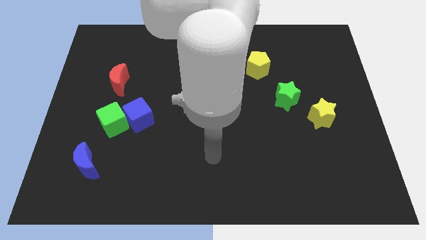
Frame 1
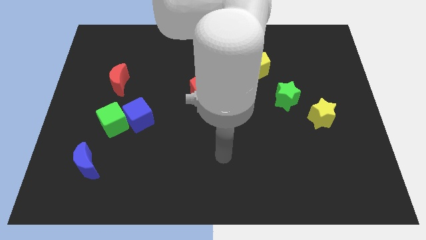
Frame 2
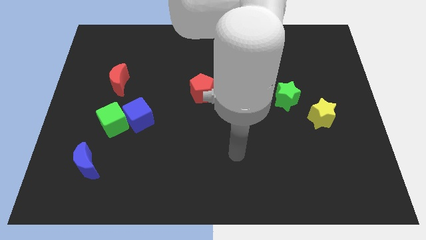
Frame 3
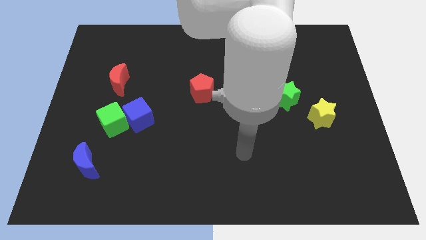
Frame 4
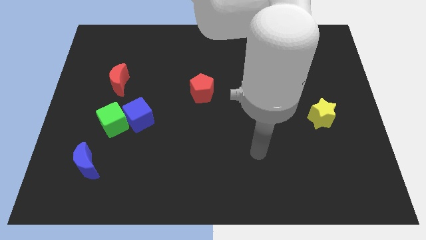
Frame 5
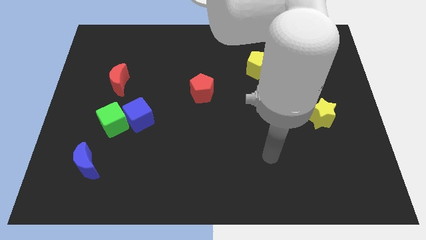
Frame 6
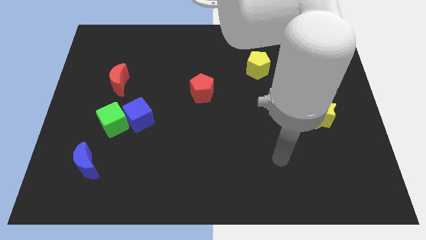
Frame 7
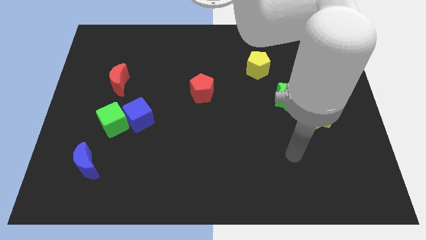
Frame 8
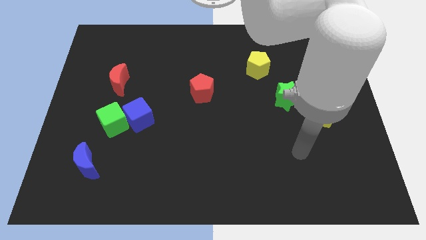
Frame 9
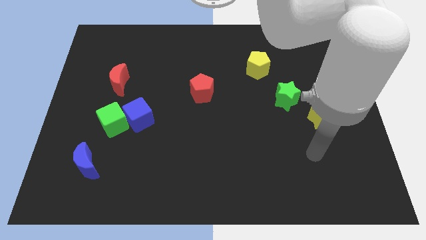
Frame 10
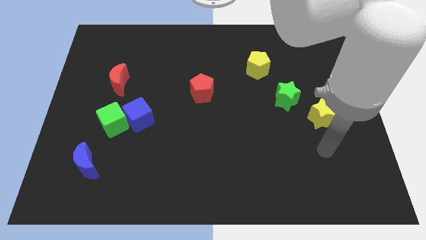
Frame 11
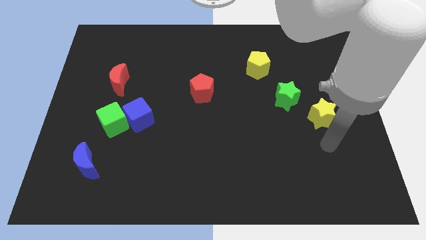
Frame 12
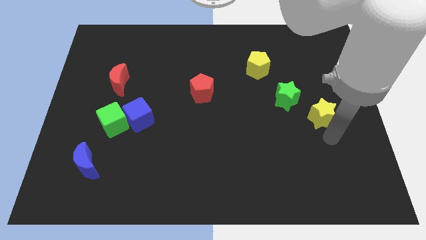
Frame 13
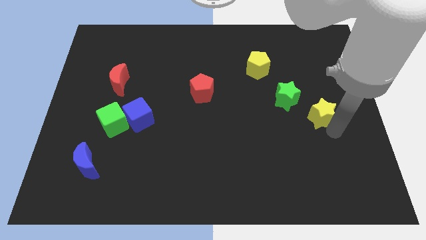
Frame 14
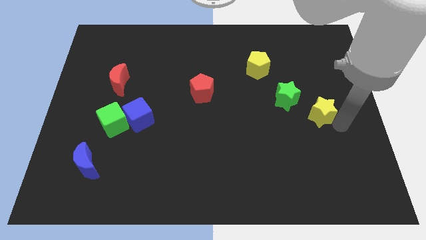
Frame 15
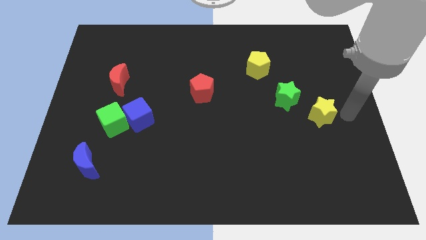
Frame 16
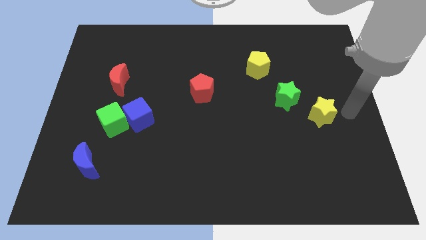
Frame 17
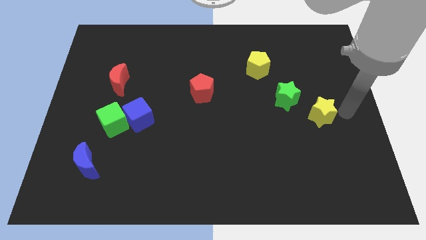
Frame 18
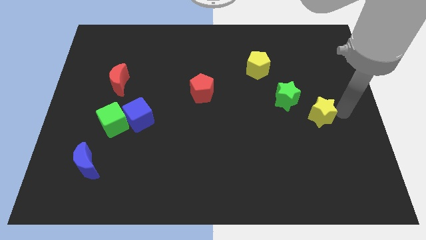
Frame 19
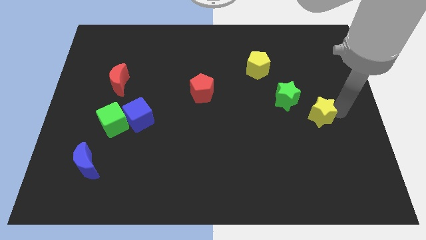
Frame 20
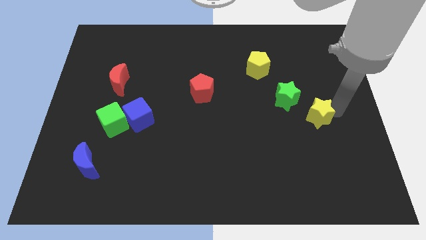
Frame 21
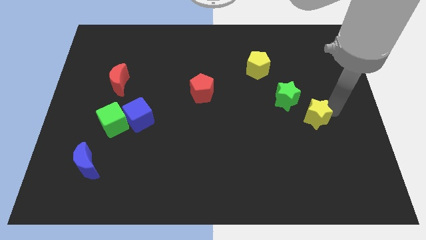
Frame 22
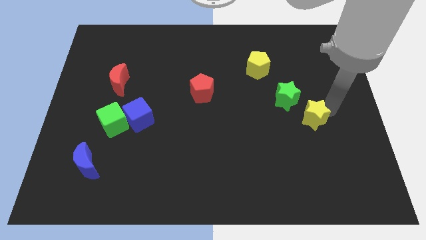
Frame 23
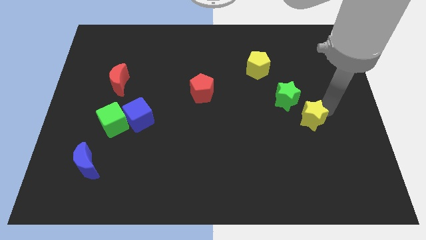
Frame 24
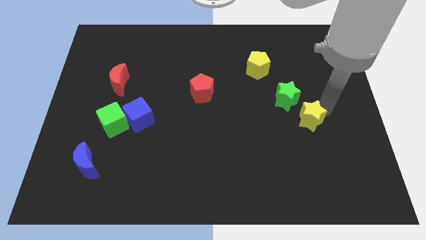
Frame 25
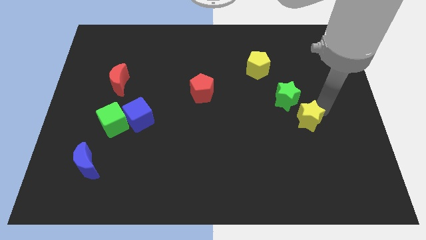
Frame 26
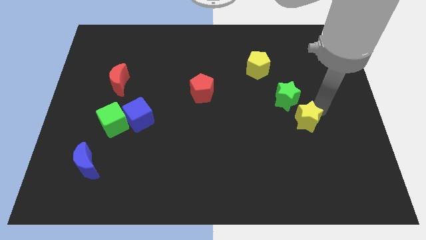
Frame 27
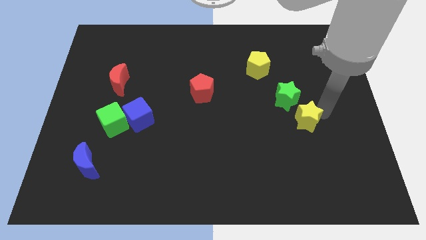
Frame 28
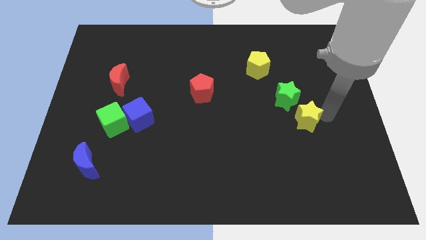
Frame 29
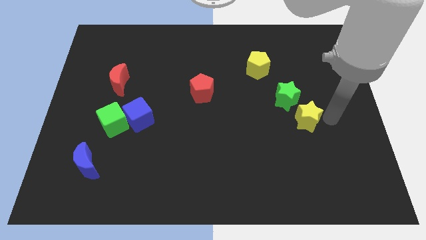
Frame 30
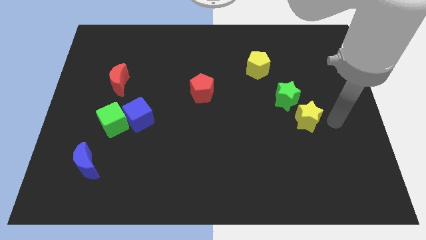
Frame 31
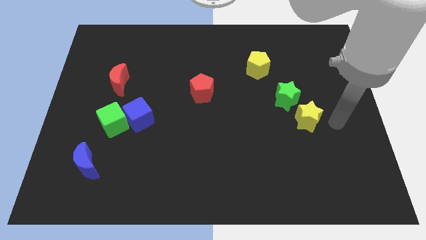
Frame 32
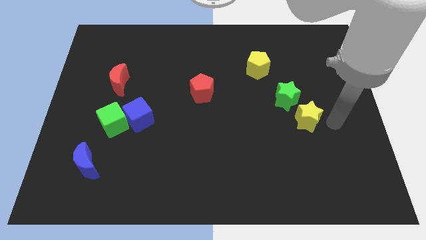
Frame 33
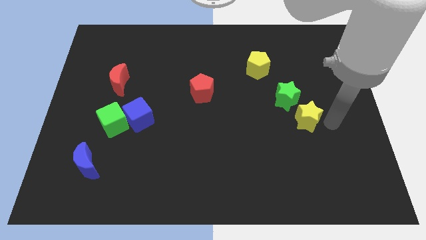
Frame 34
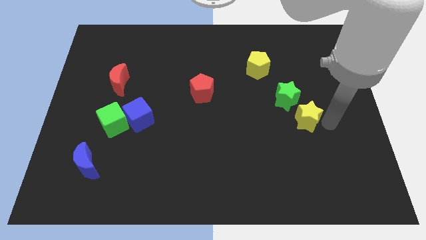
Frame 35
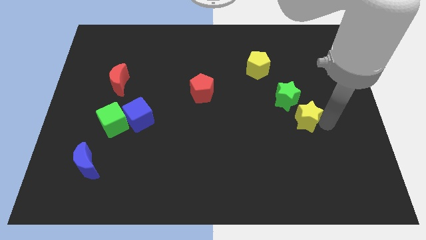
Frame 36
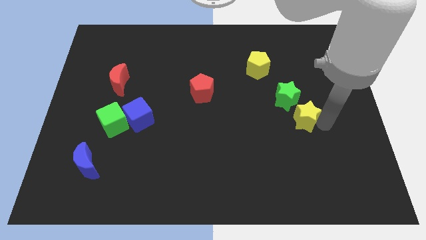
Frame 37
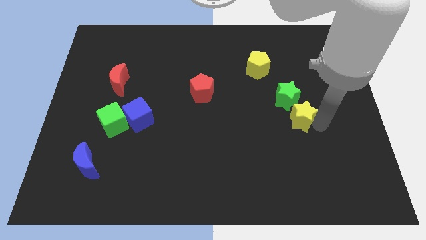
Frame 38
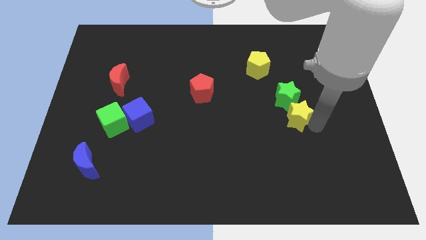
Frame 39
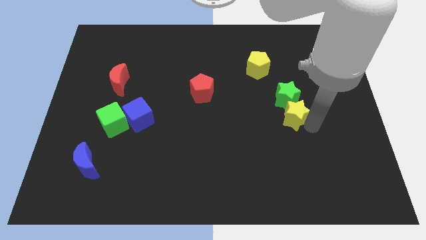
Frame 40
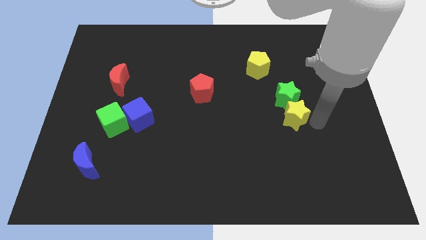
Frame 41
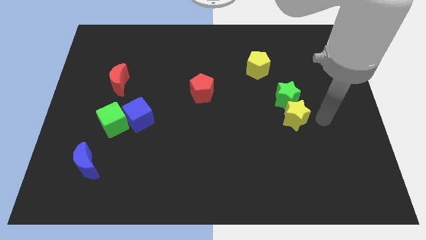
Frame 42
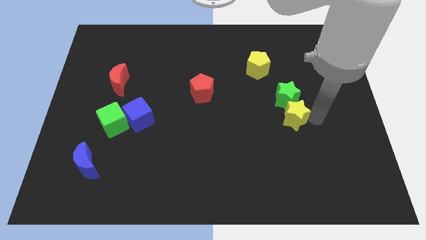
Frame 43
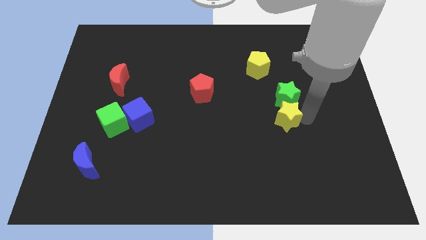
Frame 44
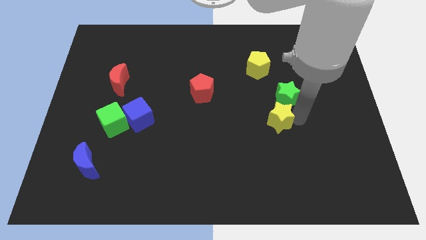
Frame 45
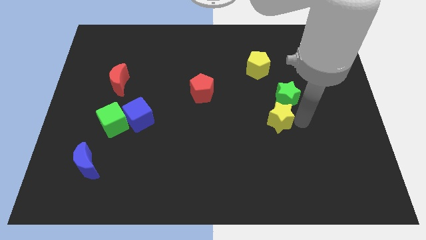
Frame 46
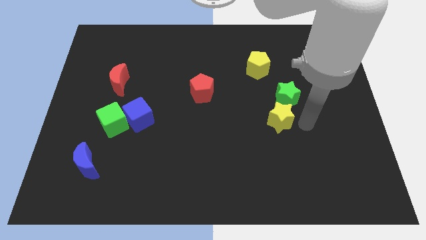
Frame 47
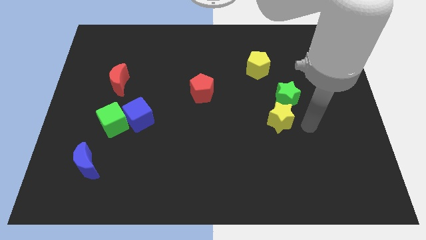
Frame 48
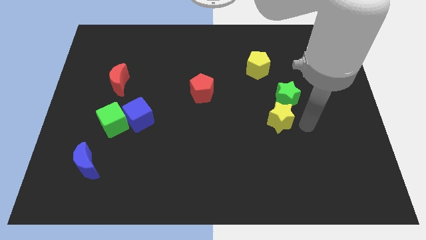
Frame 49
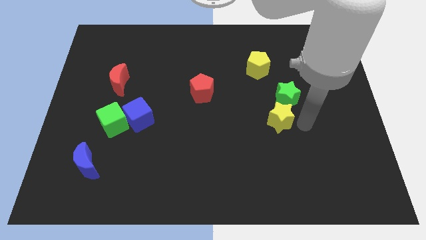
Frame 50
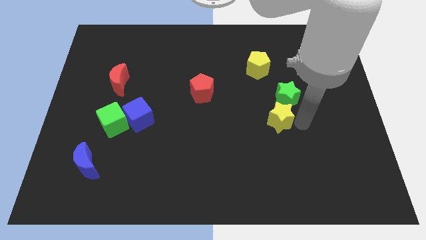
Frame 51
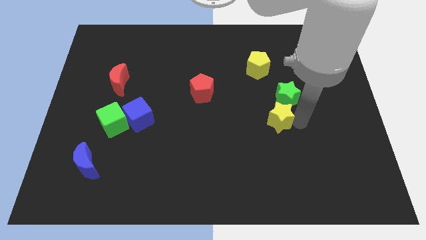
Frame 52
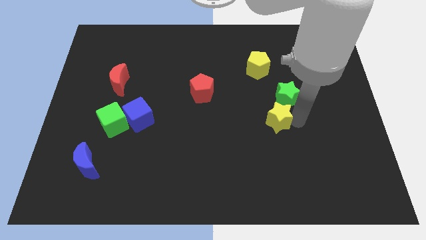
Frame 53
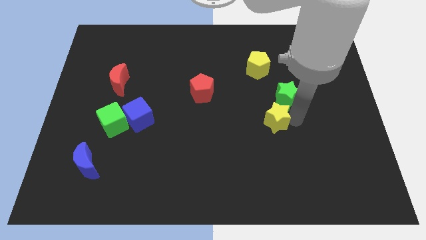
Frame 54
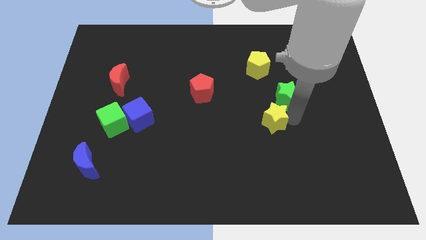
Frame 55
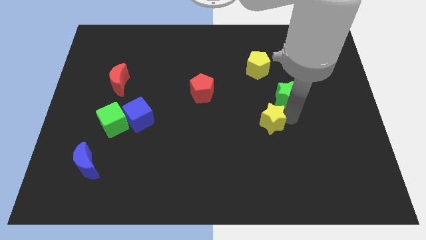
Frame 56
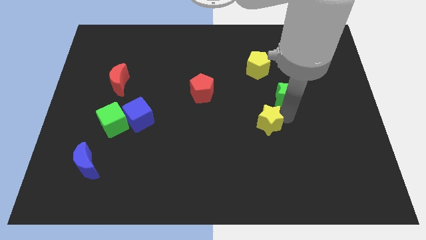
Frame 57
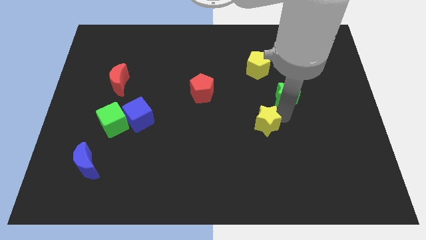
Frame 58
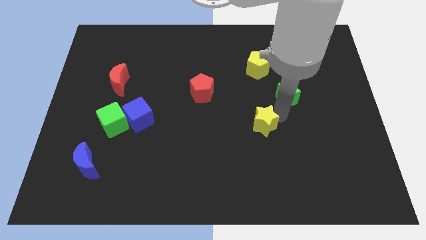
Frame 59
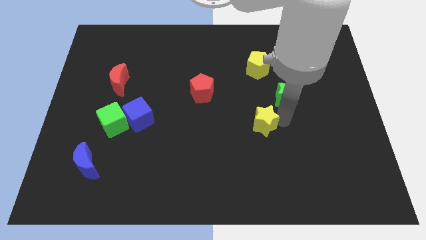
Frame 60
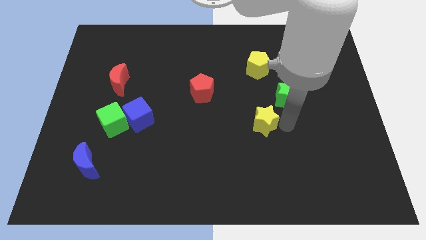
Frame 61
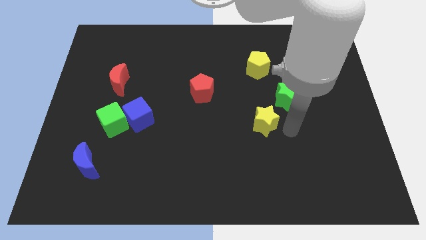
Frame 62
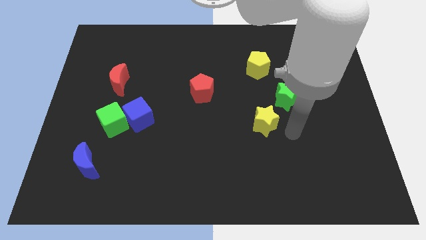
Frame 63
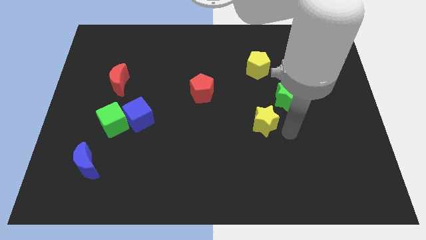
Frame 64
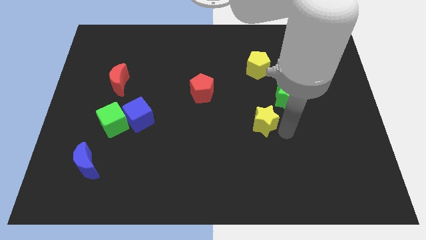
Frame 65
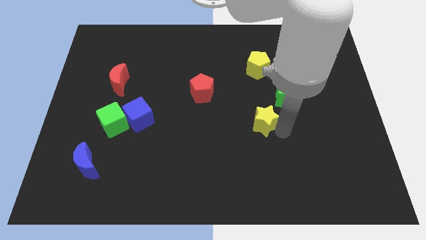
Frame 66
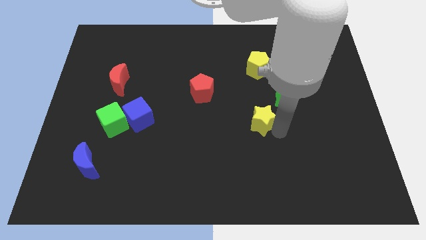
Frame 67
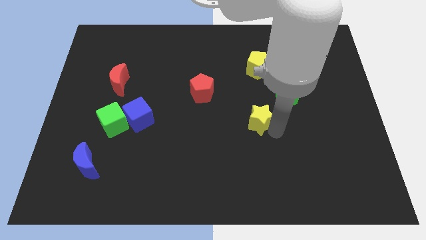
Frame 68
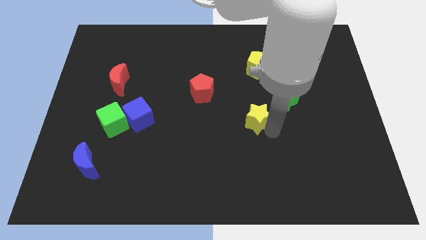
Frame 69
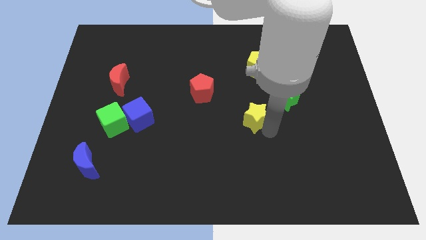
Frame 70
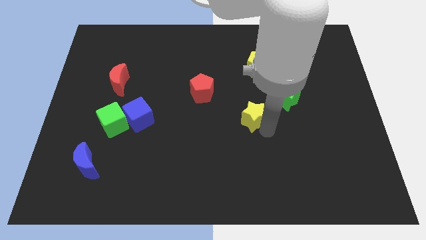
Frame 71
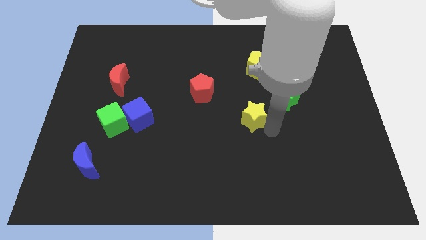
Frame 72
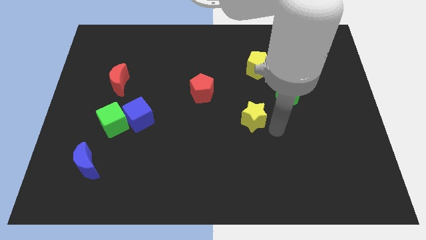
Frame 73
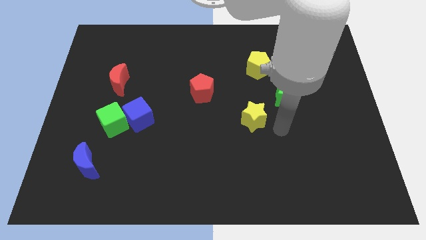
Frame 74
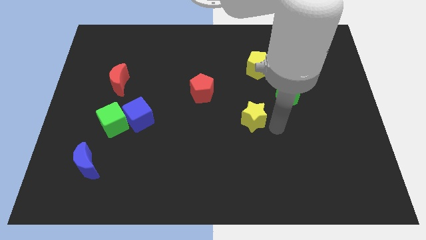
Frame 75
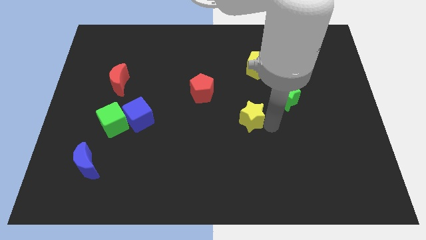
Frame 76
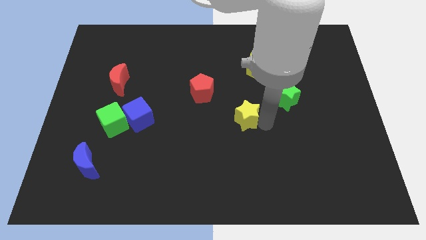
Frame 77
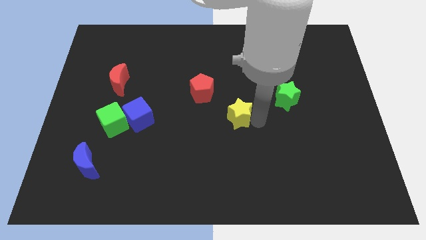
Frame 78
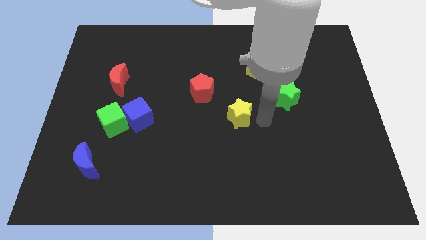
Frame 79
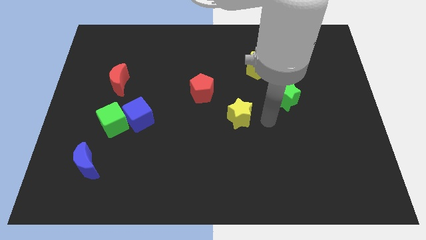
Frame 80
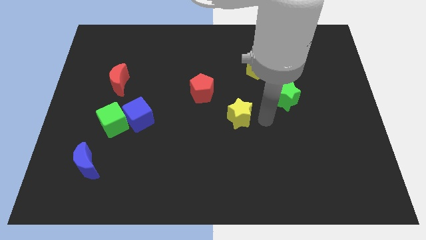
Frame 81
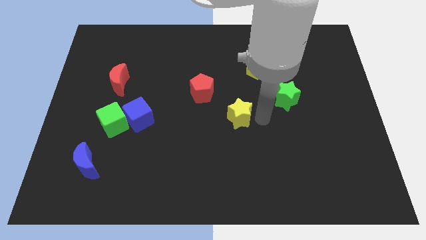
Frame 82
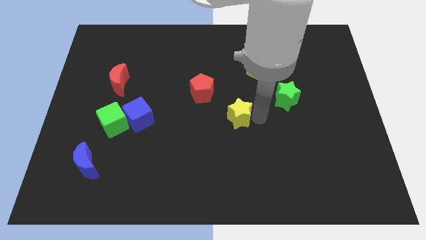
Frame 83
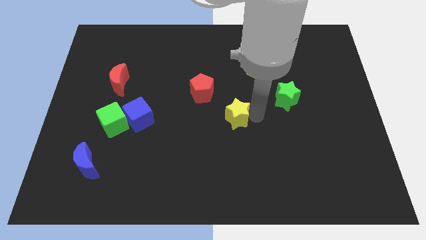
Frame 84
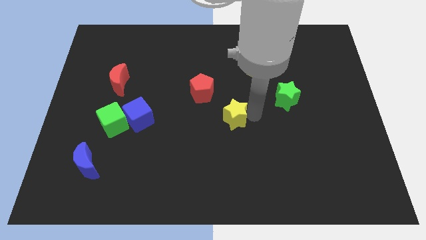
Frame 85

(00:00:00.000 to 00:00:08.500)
push the yellow star to the left
